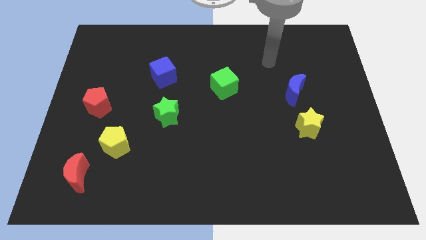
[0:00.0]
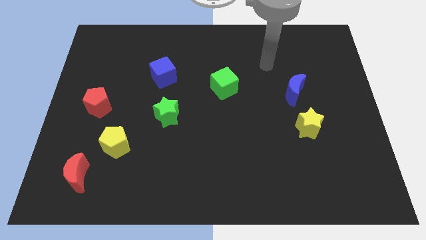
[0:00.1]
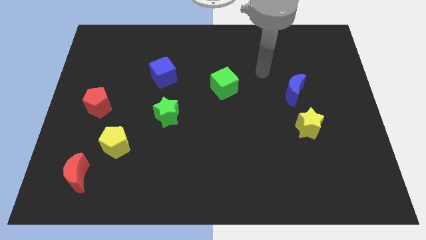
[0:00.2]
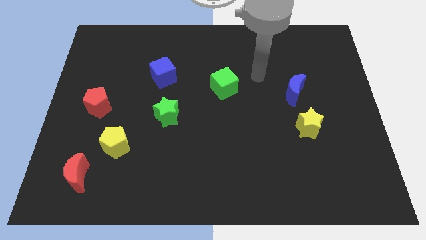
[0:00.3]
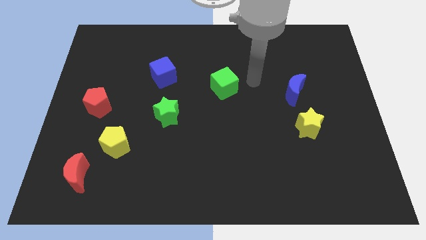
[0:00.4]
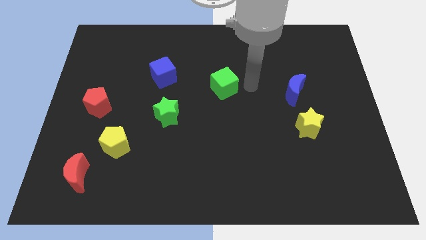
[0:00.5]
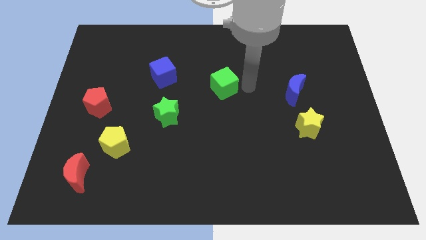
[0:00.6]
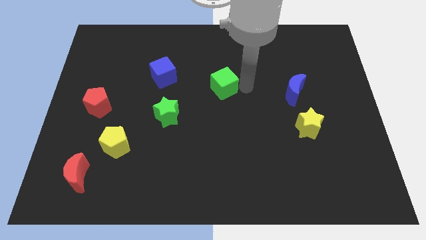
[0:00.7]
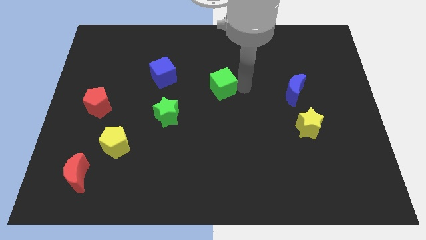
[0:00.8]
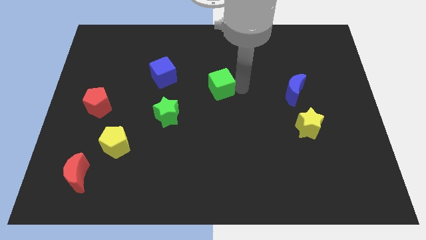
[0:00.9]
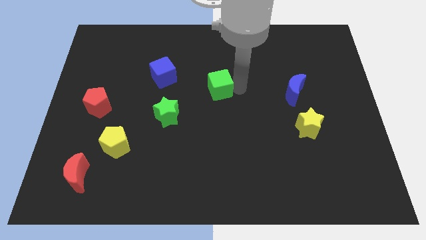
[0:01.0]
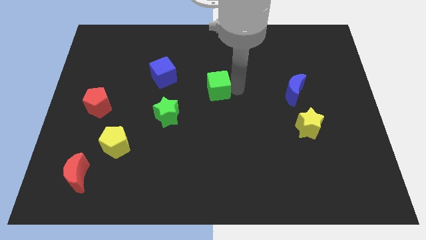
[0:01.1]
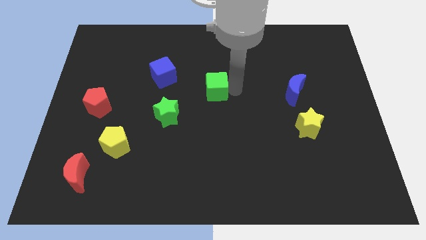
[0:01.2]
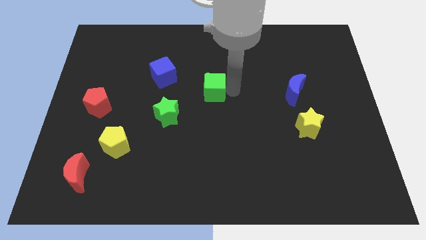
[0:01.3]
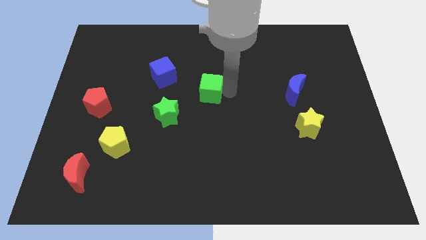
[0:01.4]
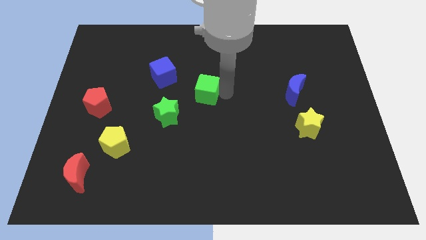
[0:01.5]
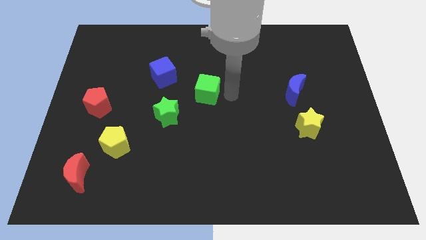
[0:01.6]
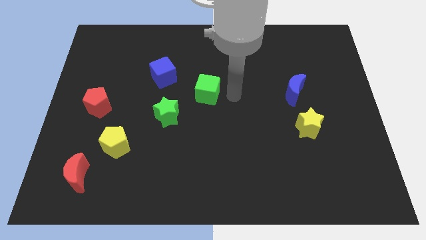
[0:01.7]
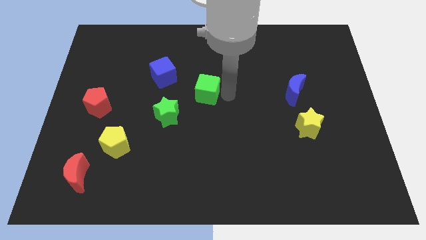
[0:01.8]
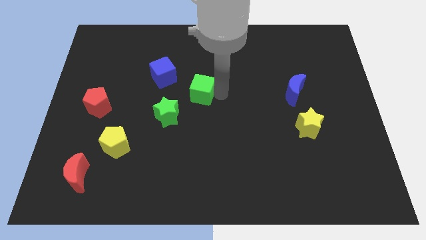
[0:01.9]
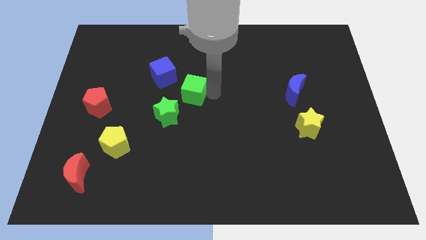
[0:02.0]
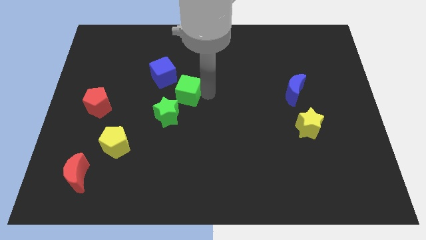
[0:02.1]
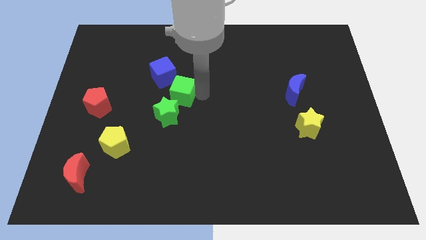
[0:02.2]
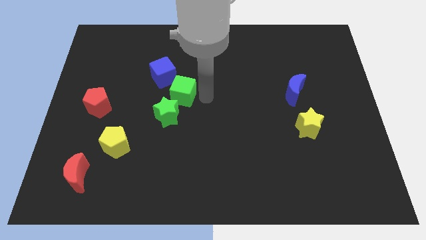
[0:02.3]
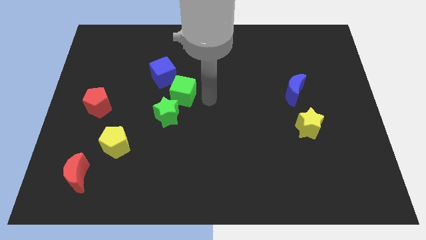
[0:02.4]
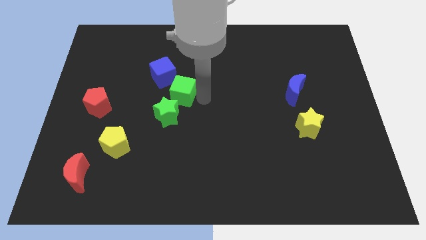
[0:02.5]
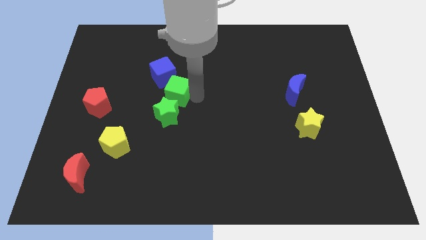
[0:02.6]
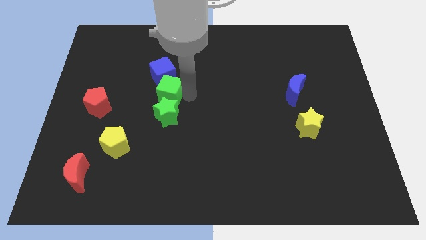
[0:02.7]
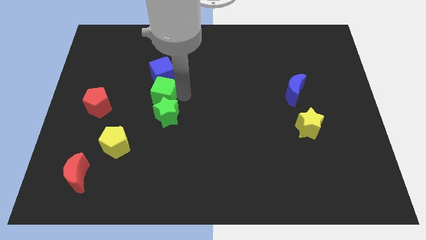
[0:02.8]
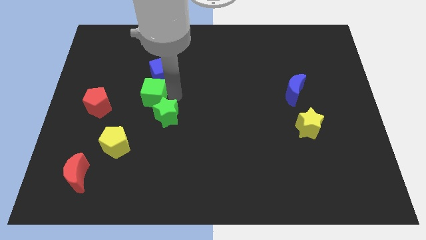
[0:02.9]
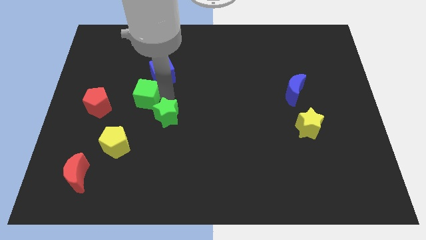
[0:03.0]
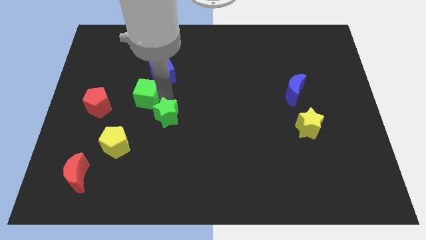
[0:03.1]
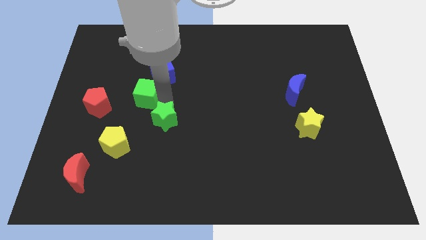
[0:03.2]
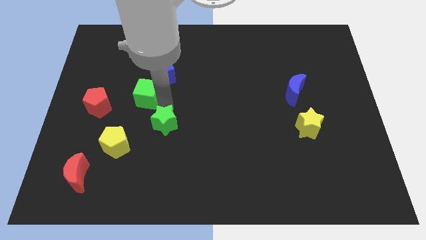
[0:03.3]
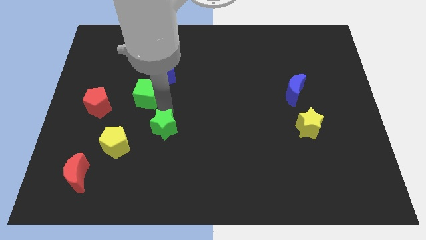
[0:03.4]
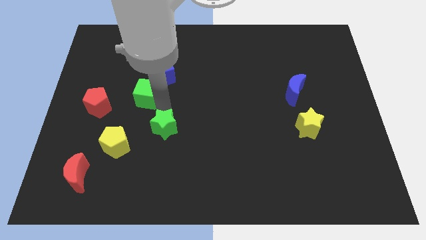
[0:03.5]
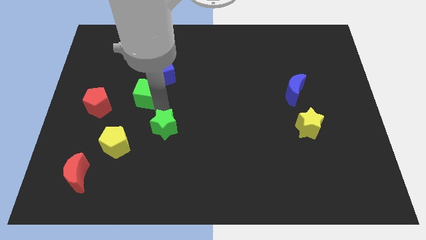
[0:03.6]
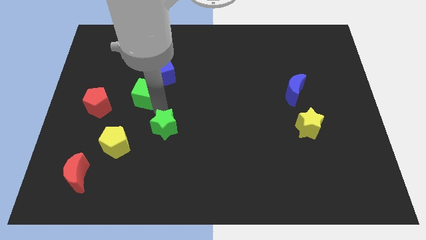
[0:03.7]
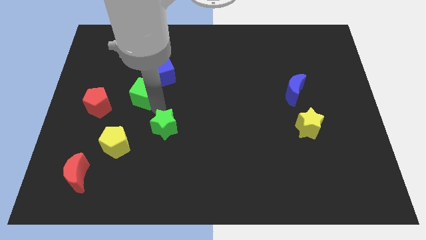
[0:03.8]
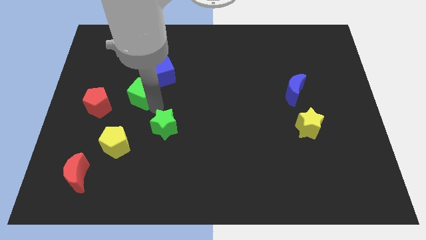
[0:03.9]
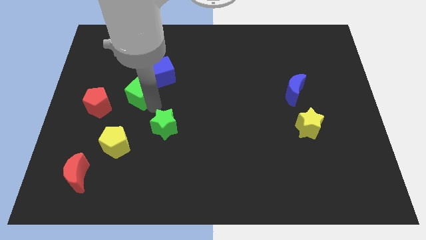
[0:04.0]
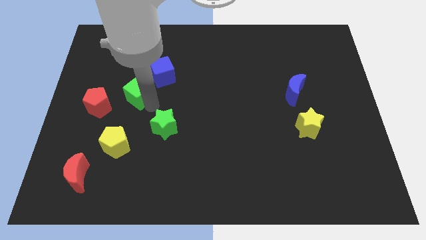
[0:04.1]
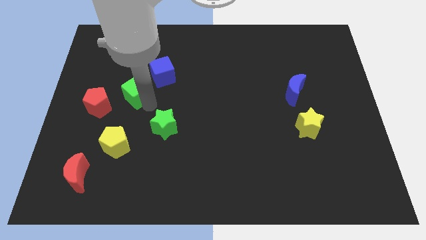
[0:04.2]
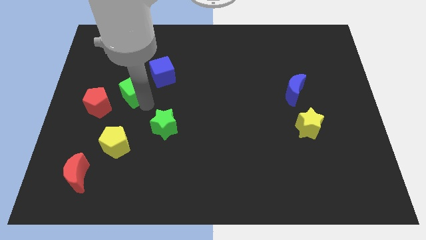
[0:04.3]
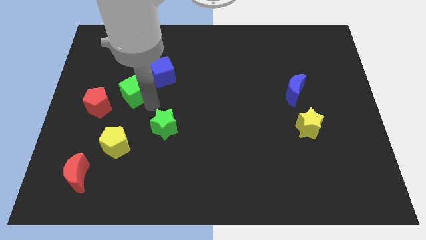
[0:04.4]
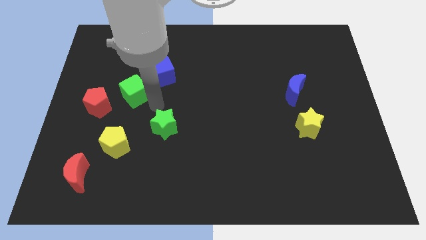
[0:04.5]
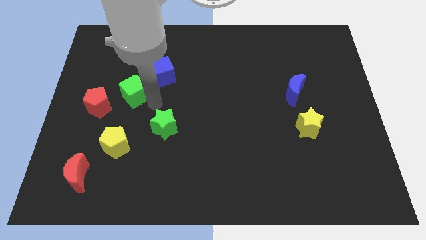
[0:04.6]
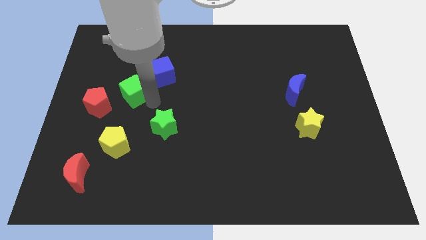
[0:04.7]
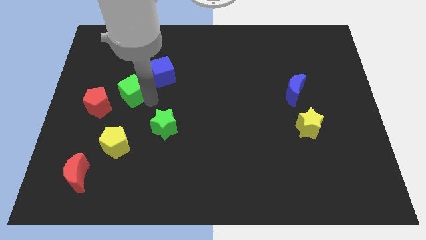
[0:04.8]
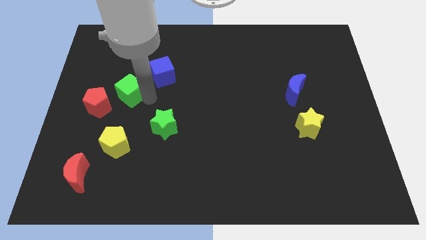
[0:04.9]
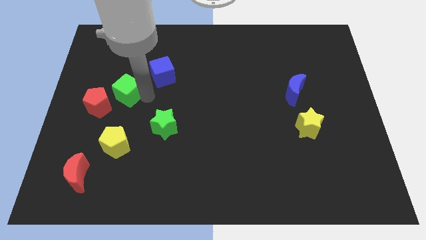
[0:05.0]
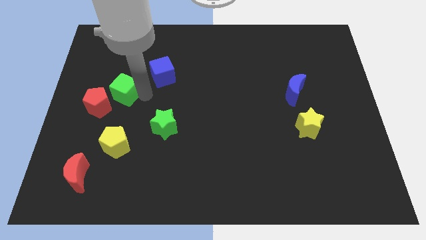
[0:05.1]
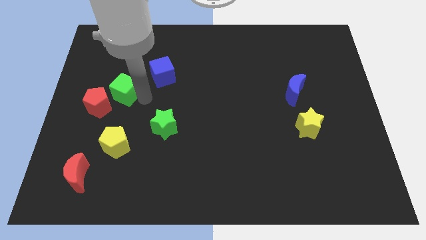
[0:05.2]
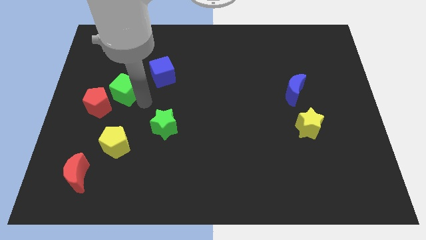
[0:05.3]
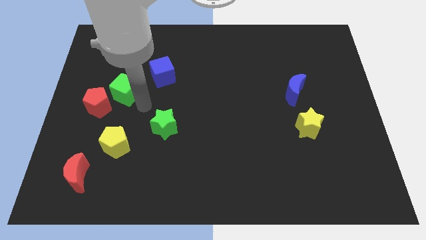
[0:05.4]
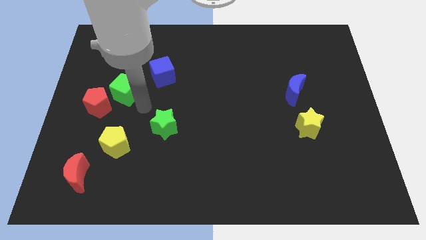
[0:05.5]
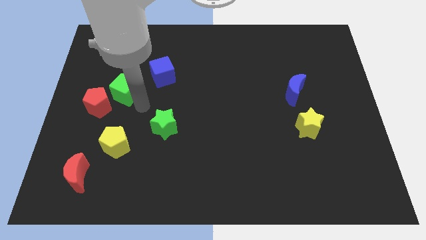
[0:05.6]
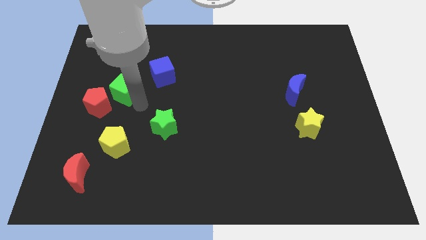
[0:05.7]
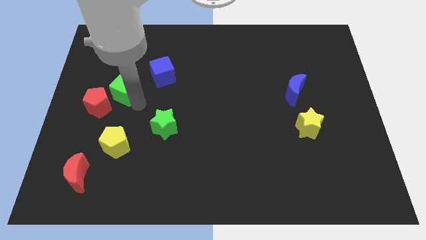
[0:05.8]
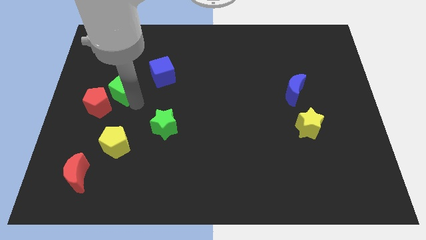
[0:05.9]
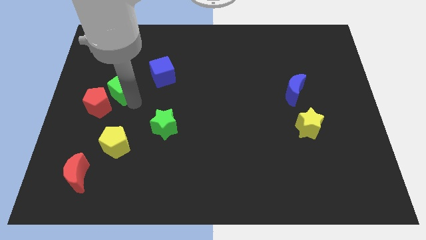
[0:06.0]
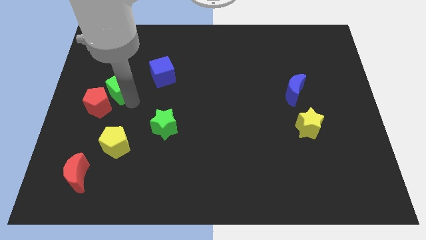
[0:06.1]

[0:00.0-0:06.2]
put the green cube to the top of the red pentagon
